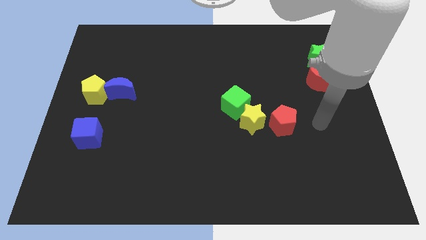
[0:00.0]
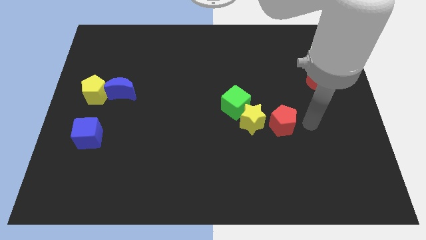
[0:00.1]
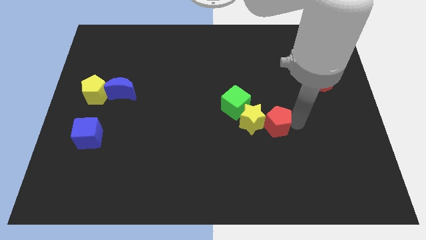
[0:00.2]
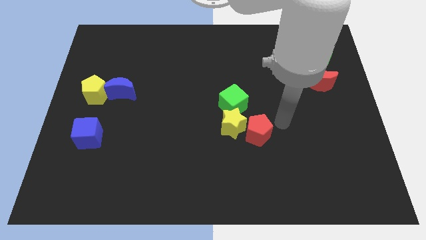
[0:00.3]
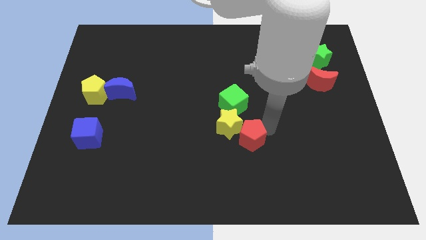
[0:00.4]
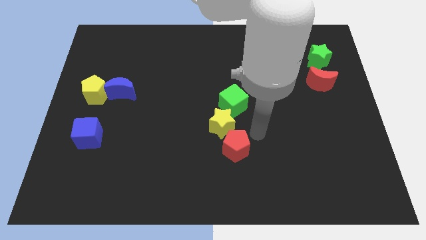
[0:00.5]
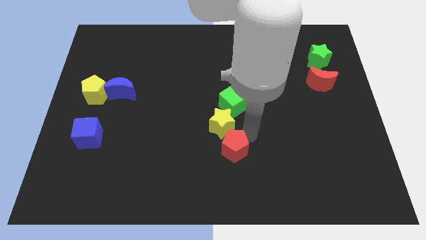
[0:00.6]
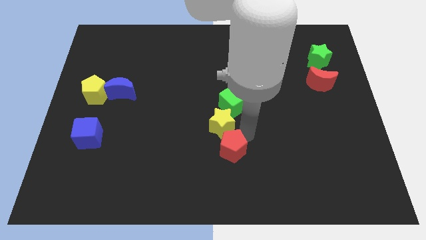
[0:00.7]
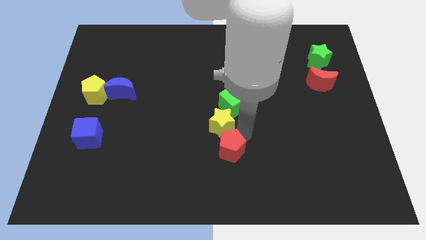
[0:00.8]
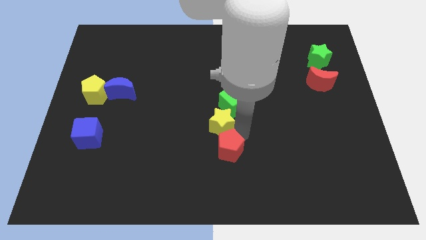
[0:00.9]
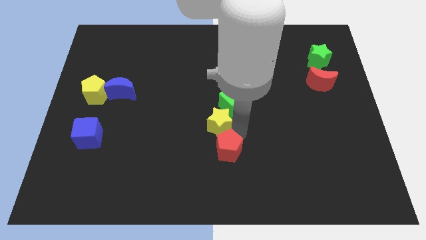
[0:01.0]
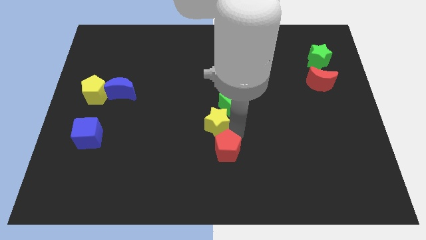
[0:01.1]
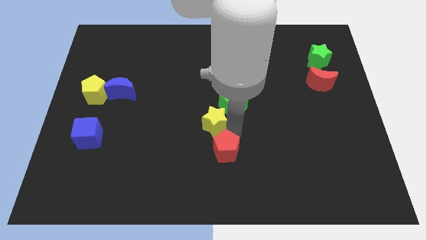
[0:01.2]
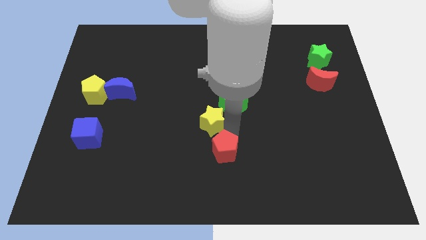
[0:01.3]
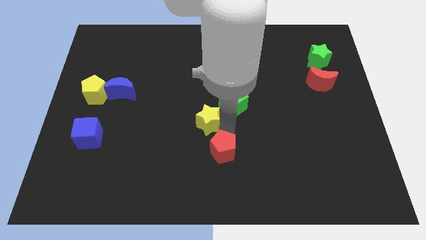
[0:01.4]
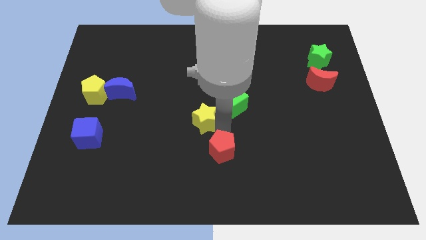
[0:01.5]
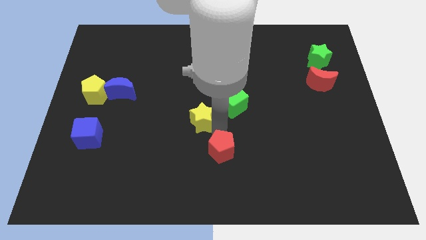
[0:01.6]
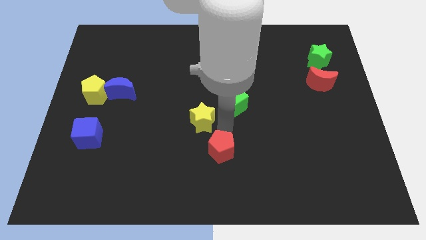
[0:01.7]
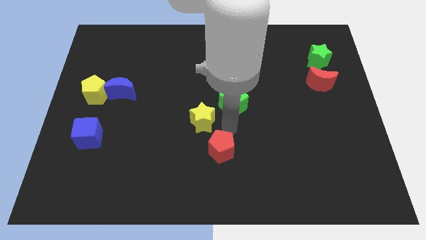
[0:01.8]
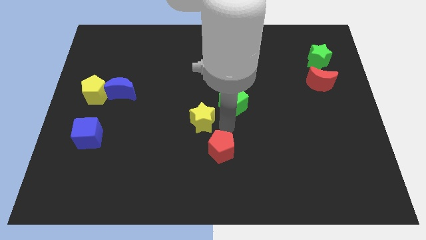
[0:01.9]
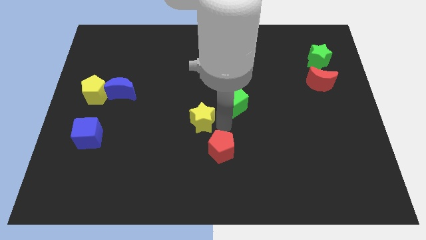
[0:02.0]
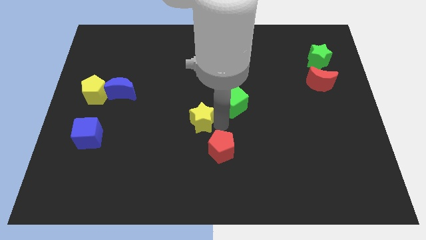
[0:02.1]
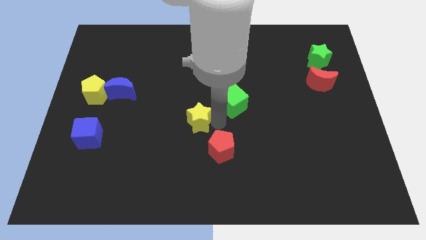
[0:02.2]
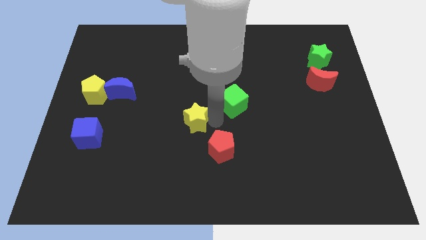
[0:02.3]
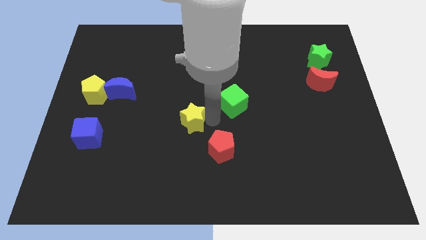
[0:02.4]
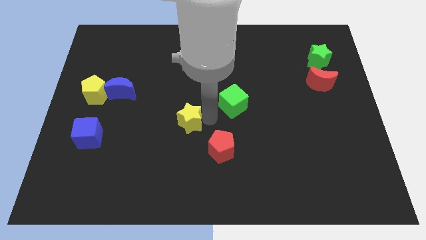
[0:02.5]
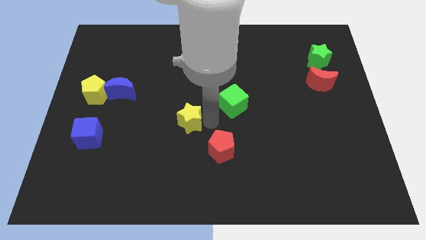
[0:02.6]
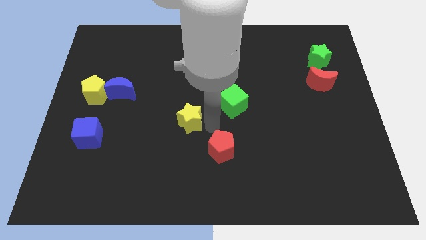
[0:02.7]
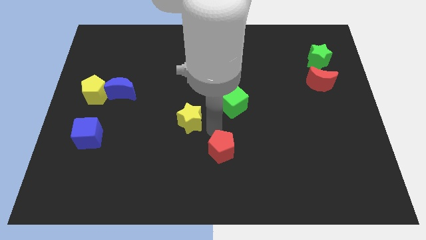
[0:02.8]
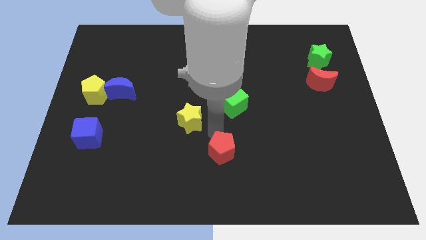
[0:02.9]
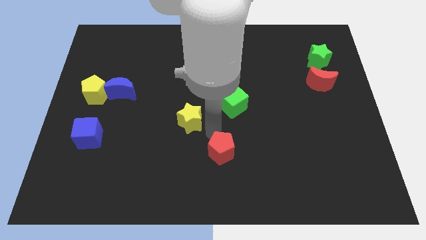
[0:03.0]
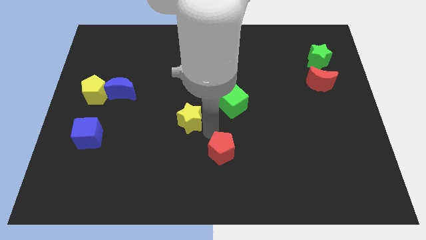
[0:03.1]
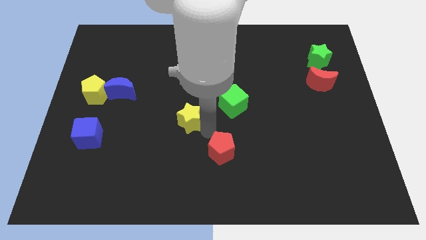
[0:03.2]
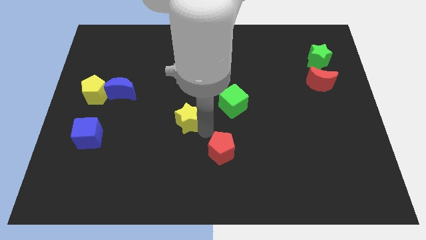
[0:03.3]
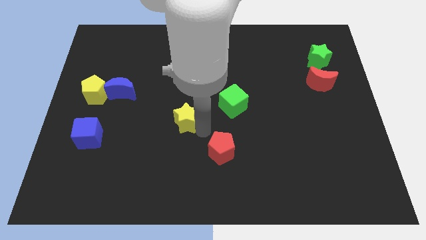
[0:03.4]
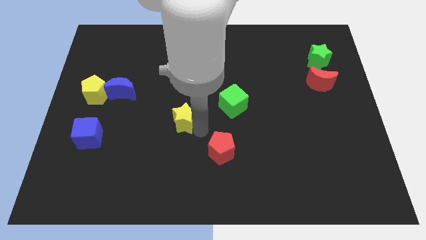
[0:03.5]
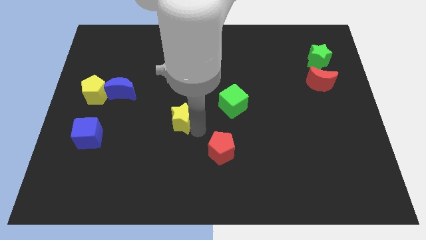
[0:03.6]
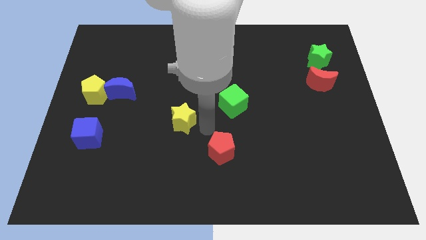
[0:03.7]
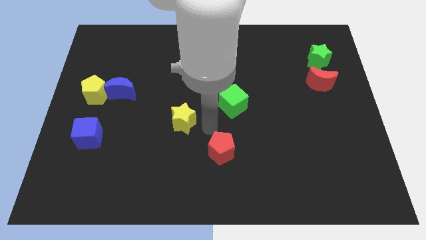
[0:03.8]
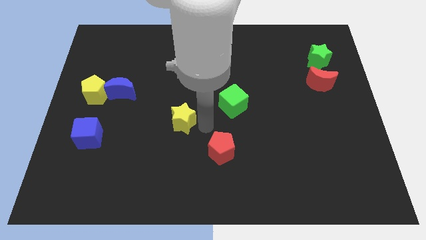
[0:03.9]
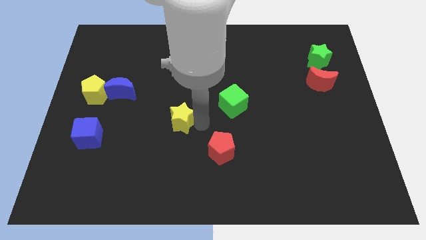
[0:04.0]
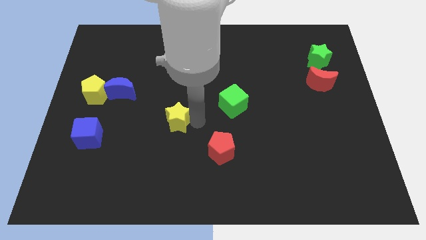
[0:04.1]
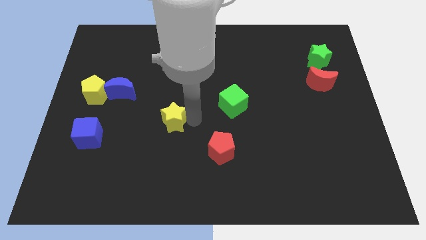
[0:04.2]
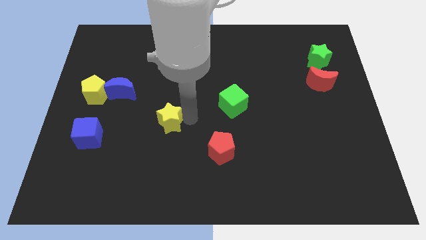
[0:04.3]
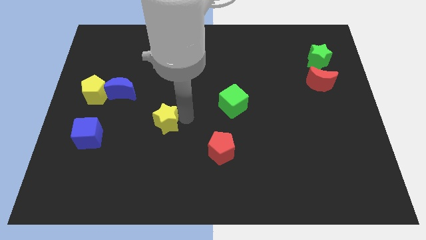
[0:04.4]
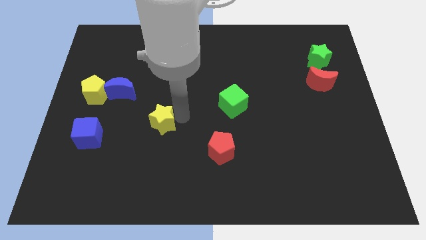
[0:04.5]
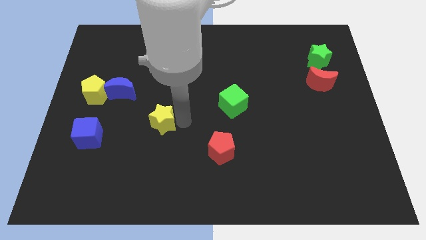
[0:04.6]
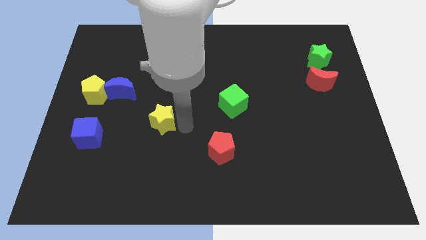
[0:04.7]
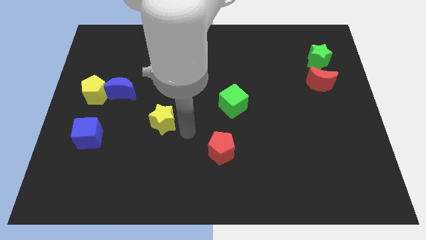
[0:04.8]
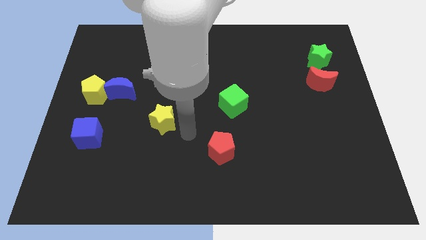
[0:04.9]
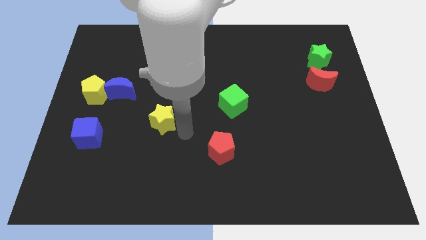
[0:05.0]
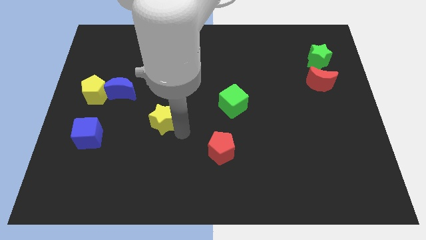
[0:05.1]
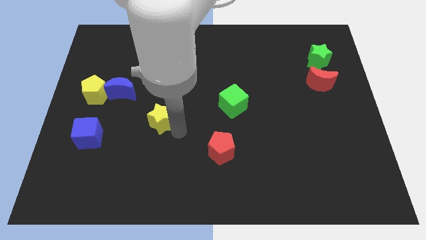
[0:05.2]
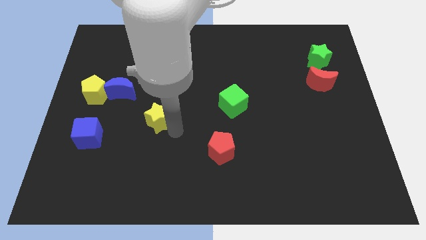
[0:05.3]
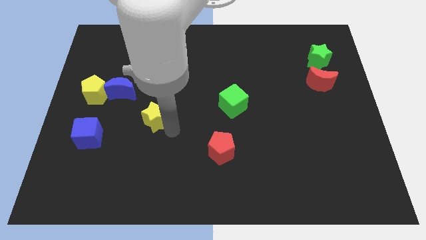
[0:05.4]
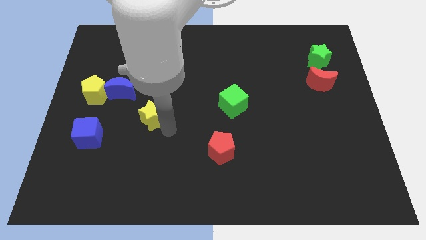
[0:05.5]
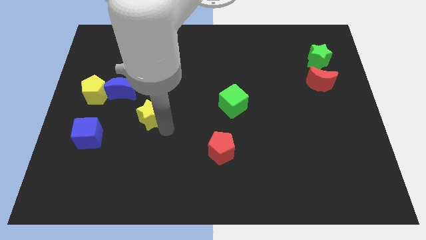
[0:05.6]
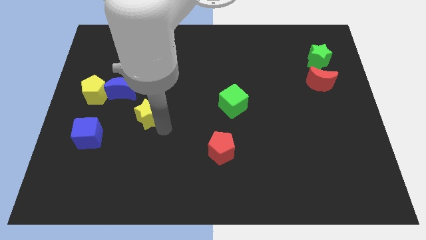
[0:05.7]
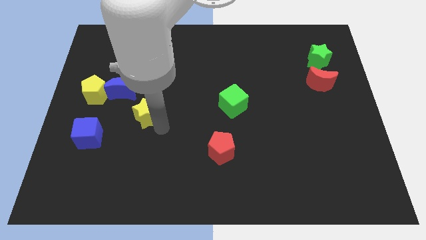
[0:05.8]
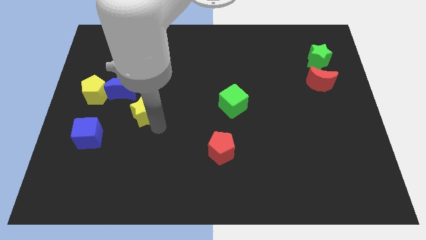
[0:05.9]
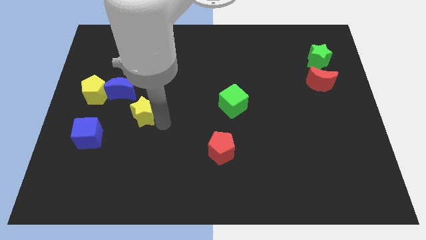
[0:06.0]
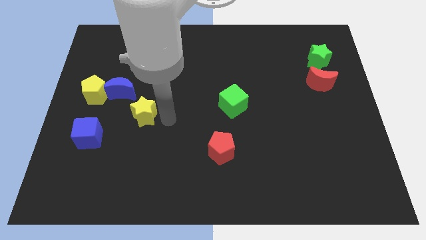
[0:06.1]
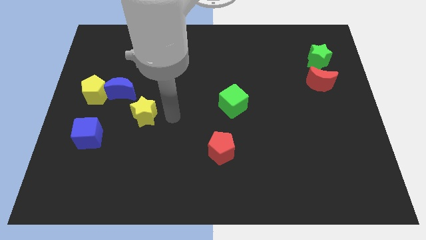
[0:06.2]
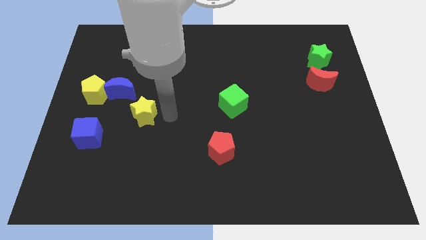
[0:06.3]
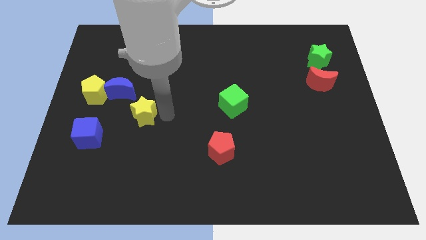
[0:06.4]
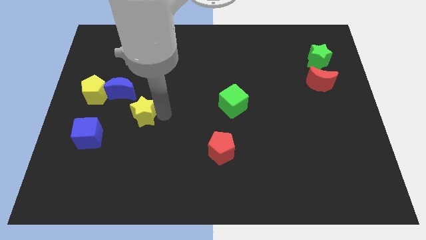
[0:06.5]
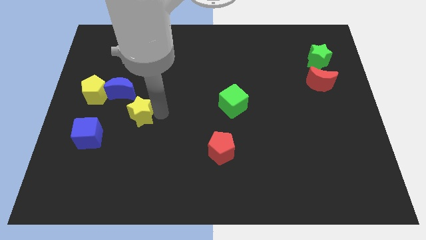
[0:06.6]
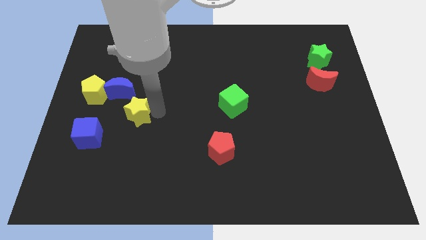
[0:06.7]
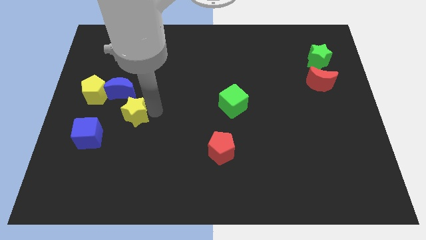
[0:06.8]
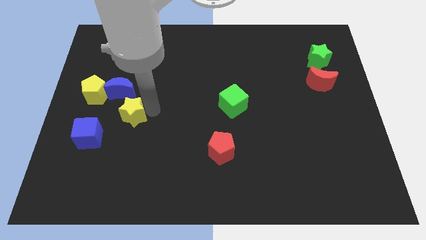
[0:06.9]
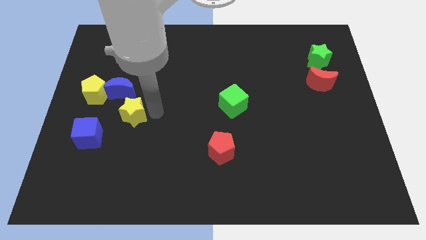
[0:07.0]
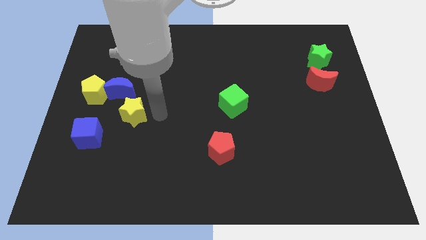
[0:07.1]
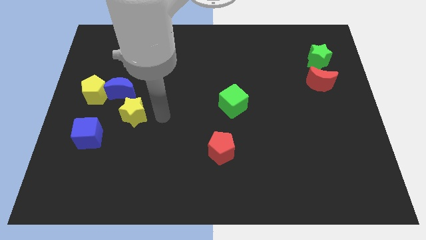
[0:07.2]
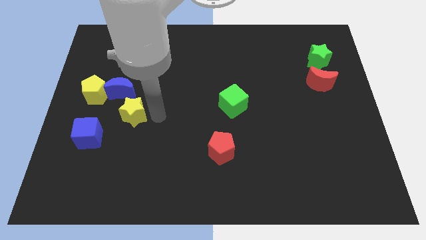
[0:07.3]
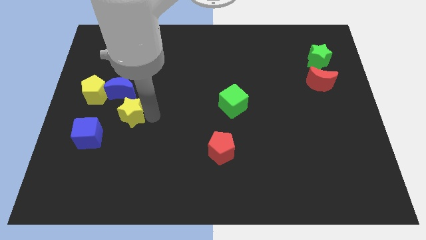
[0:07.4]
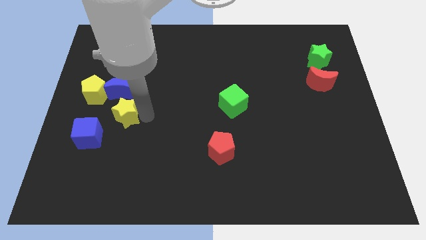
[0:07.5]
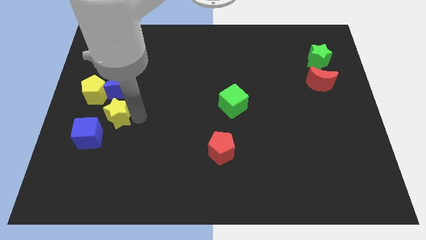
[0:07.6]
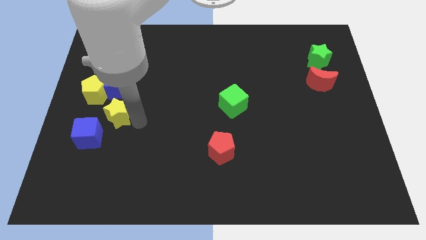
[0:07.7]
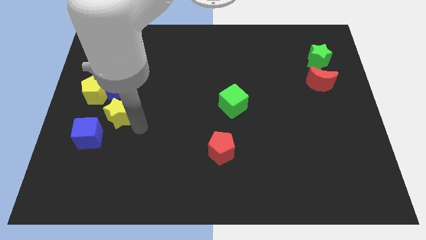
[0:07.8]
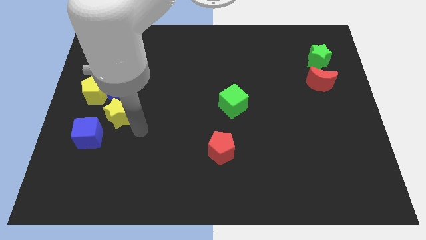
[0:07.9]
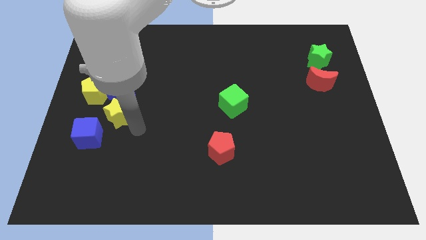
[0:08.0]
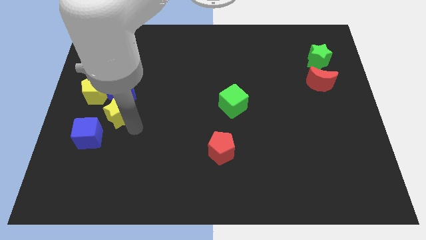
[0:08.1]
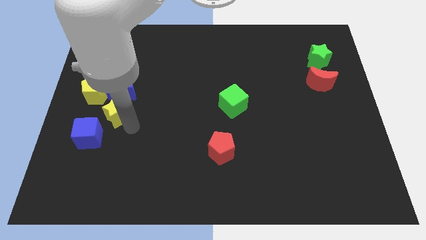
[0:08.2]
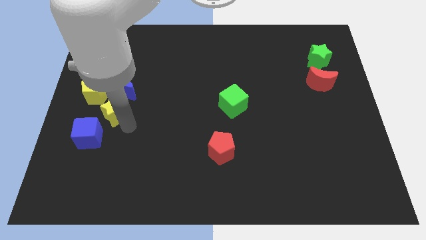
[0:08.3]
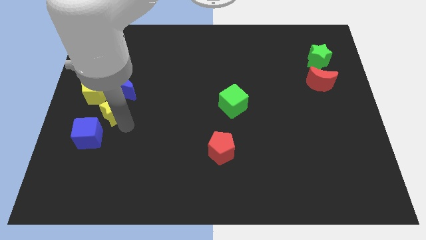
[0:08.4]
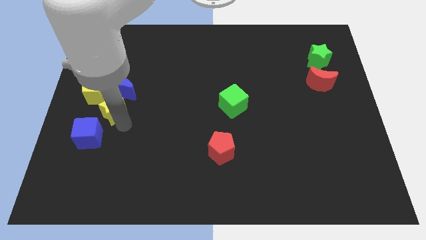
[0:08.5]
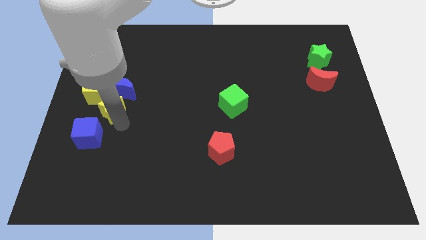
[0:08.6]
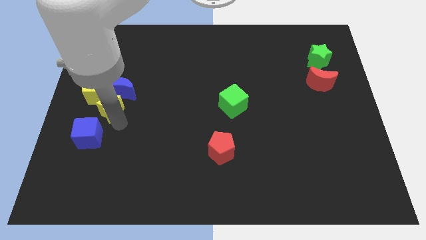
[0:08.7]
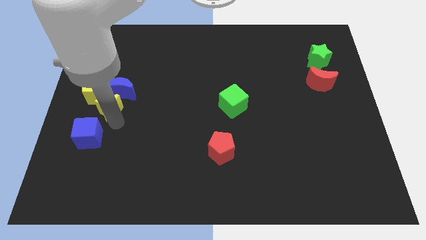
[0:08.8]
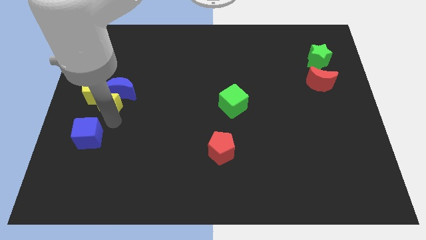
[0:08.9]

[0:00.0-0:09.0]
put the yellow star to the yellow pentagon
